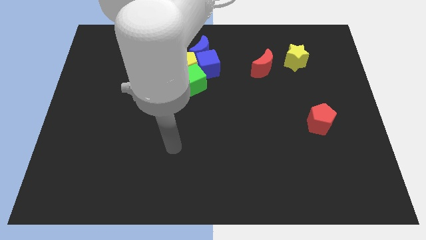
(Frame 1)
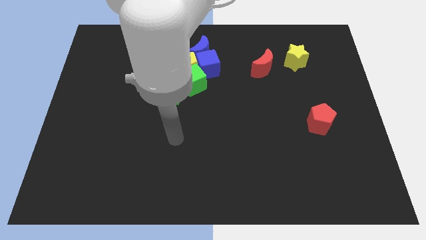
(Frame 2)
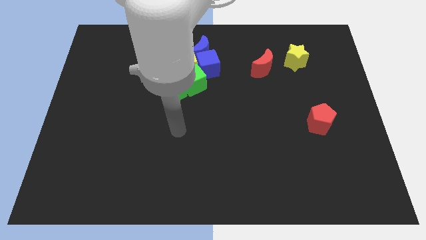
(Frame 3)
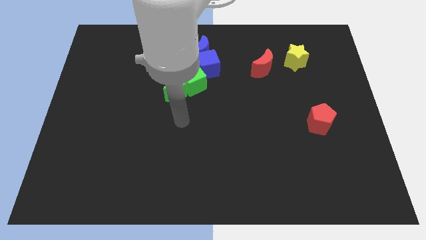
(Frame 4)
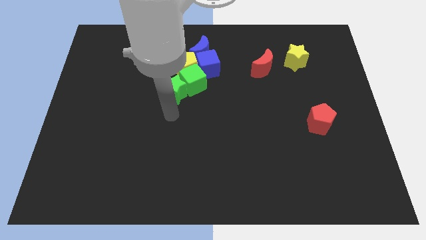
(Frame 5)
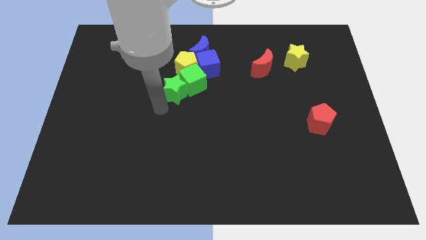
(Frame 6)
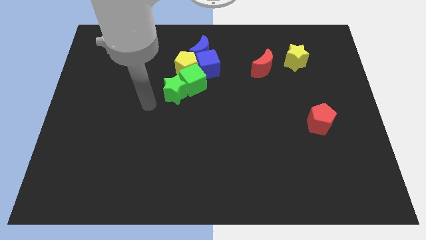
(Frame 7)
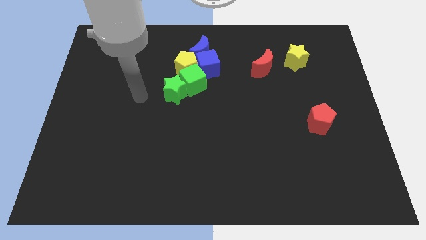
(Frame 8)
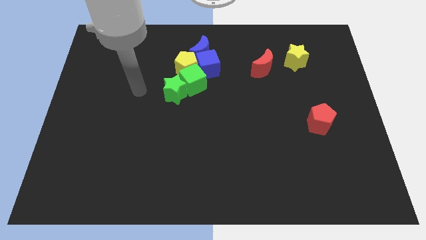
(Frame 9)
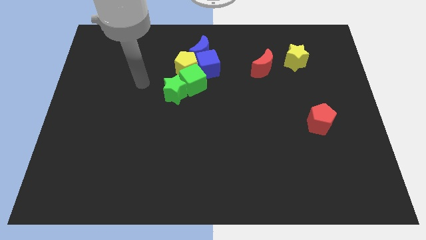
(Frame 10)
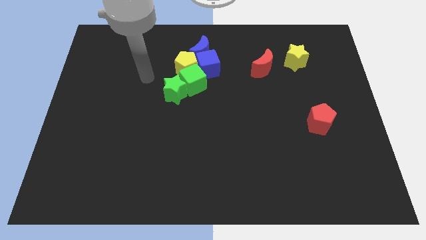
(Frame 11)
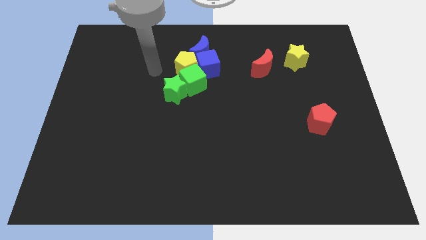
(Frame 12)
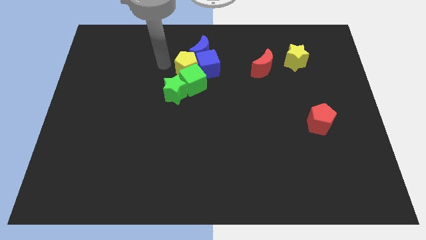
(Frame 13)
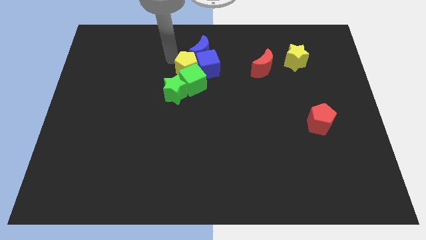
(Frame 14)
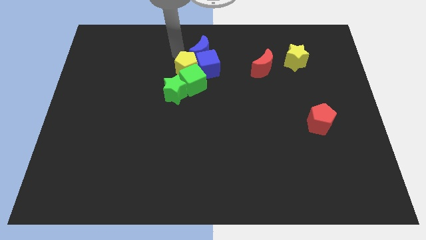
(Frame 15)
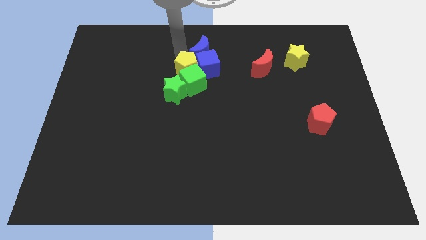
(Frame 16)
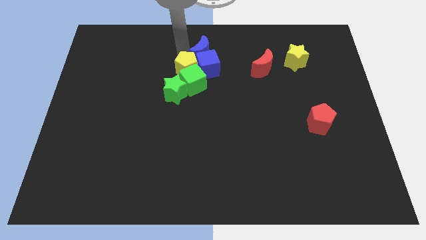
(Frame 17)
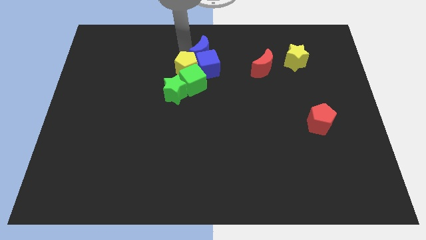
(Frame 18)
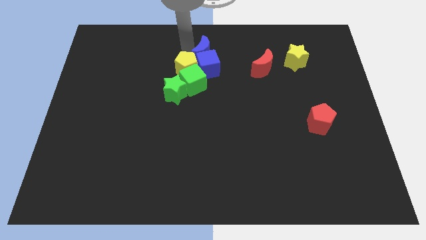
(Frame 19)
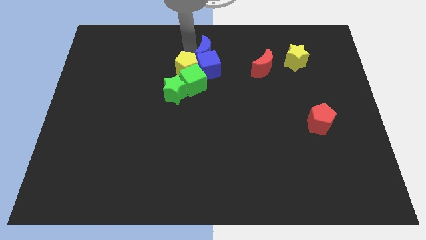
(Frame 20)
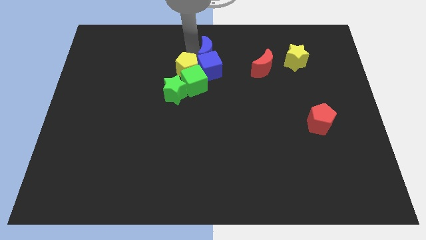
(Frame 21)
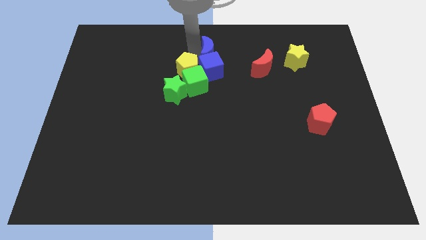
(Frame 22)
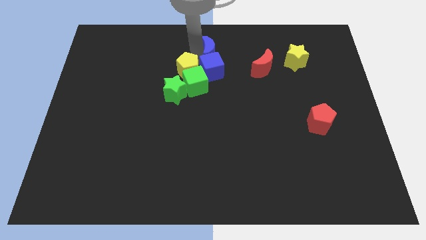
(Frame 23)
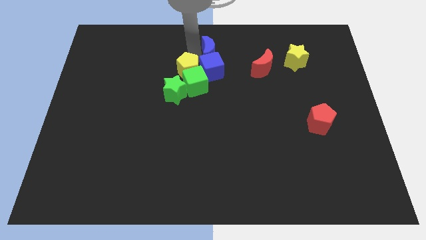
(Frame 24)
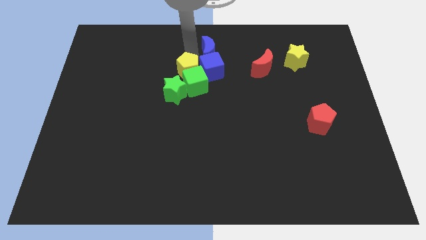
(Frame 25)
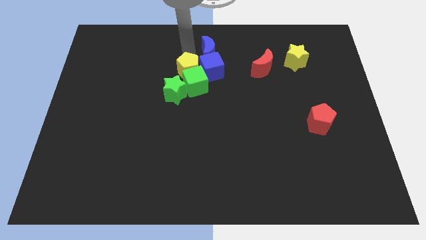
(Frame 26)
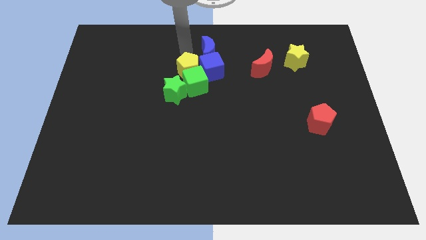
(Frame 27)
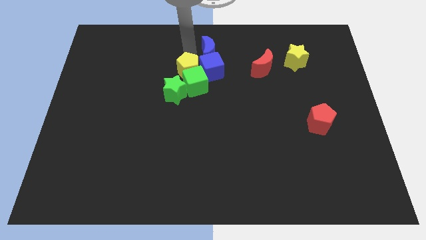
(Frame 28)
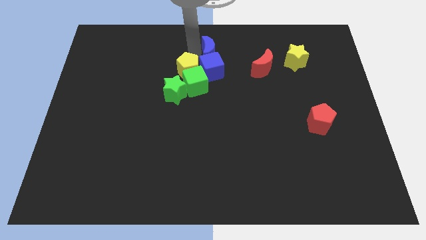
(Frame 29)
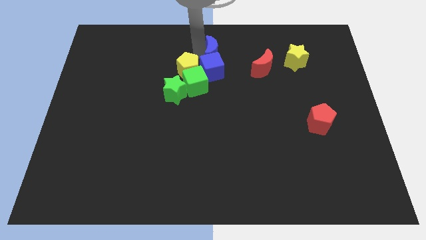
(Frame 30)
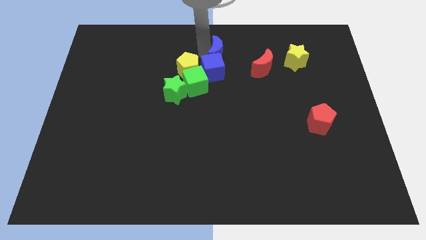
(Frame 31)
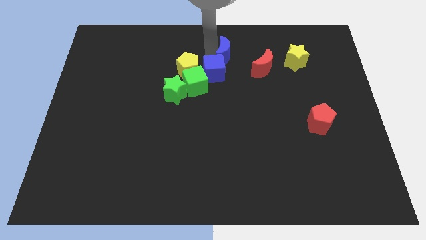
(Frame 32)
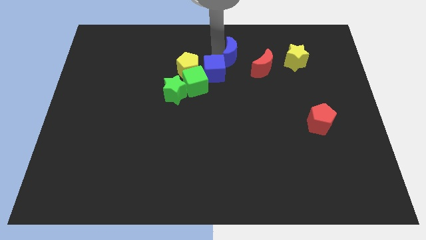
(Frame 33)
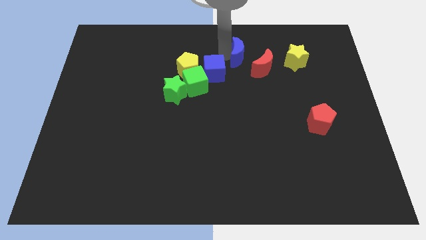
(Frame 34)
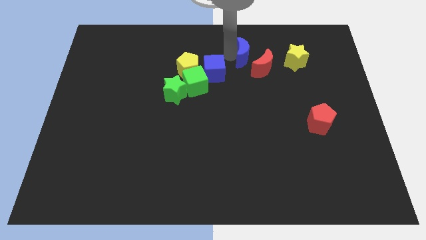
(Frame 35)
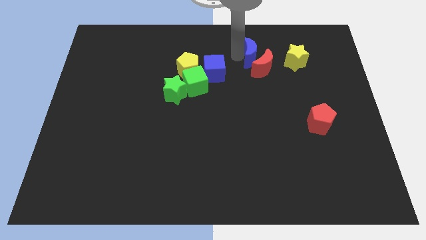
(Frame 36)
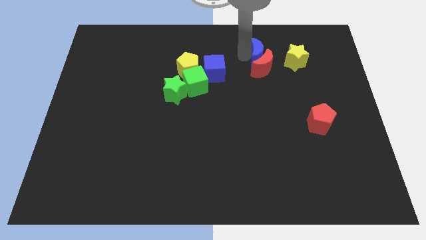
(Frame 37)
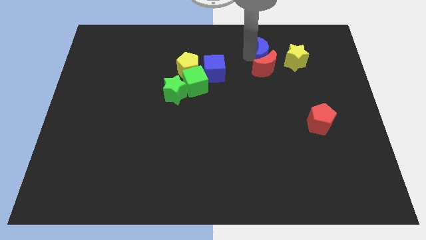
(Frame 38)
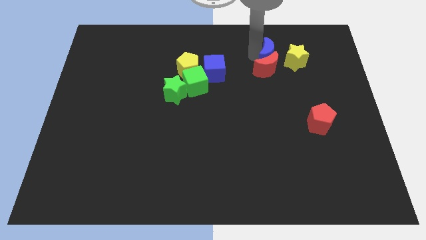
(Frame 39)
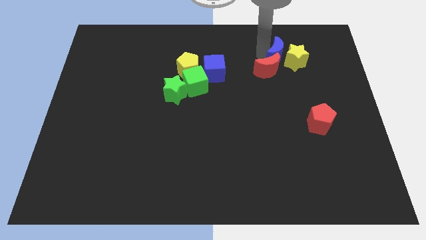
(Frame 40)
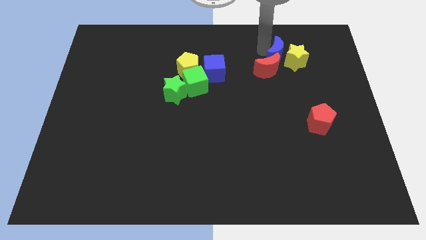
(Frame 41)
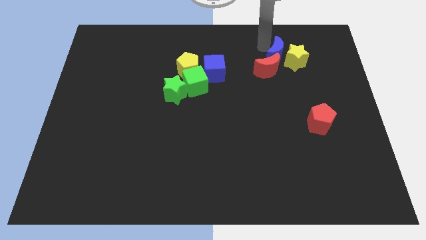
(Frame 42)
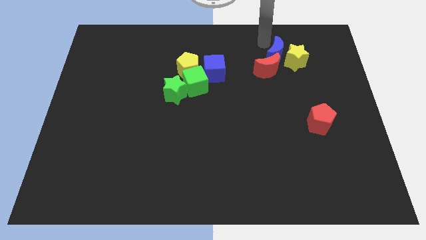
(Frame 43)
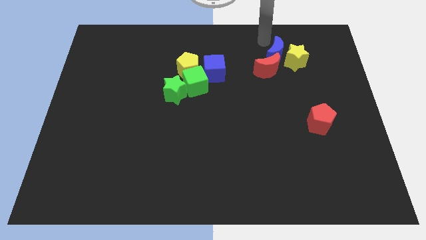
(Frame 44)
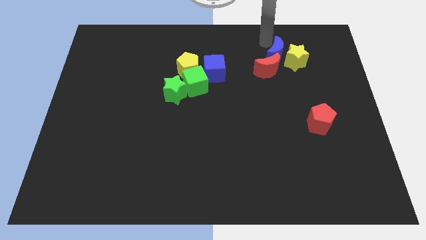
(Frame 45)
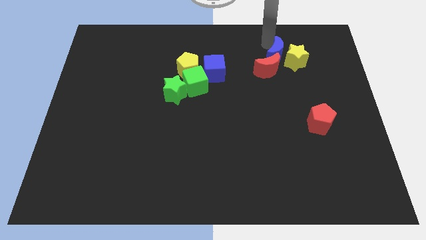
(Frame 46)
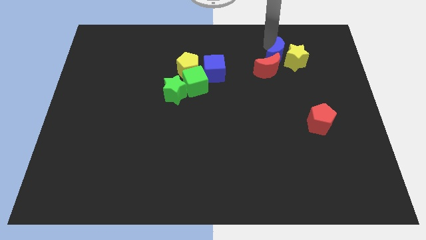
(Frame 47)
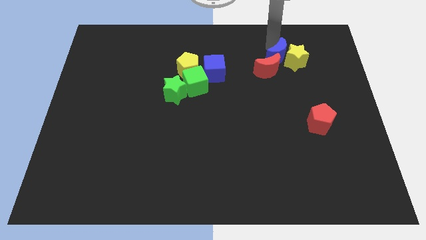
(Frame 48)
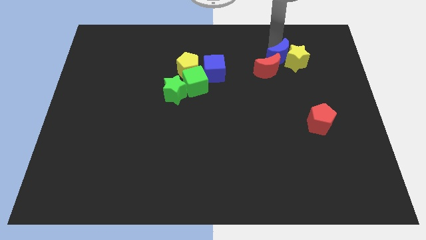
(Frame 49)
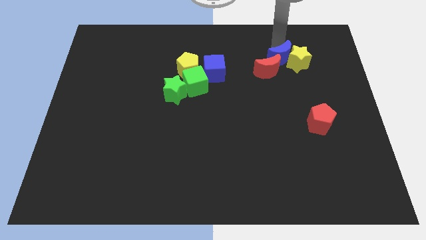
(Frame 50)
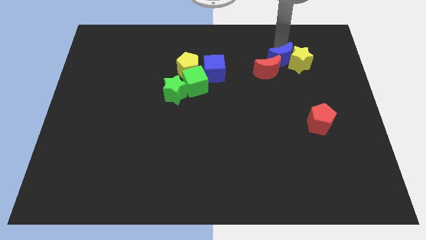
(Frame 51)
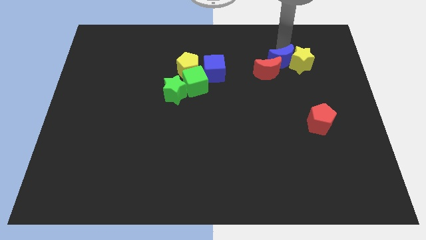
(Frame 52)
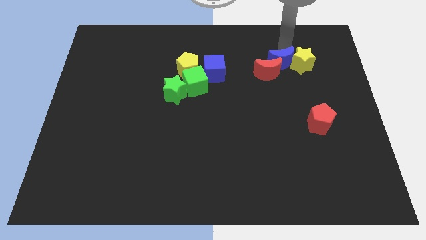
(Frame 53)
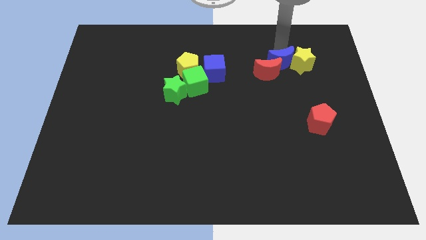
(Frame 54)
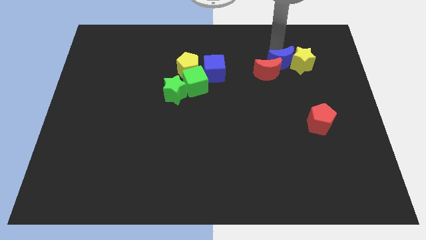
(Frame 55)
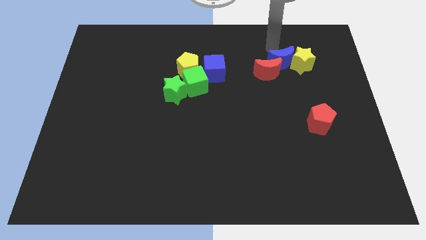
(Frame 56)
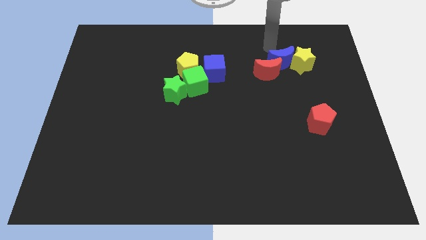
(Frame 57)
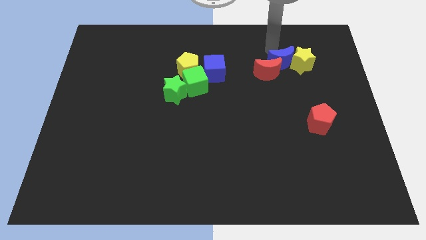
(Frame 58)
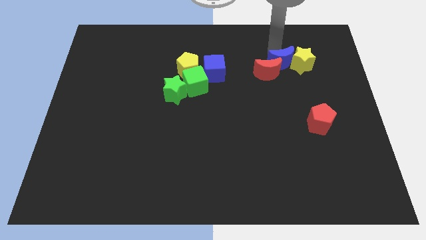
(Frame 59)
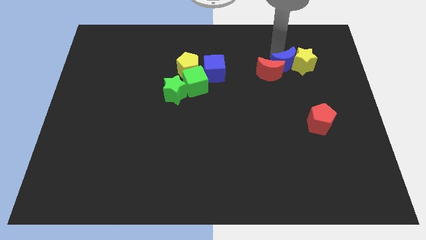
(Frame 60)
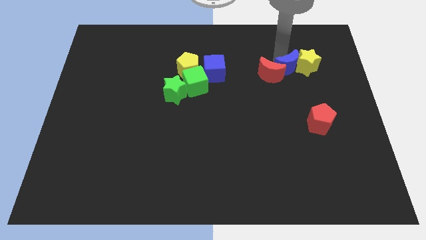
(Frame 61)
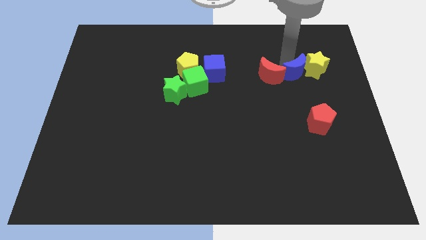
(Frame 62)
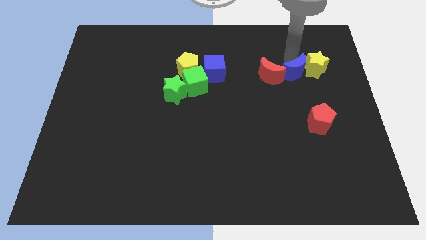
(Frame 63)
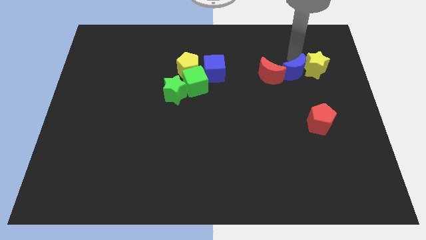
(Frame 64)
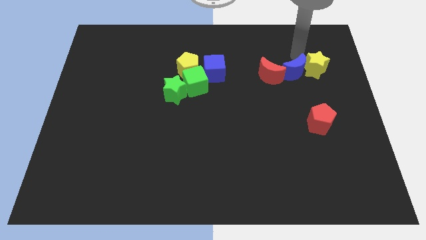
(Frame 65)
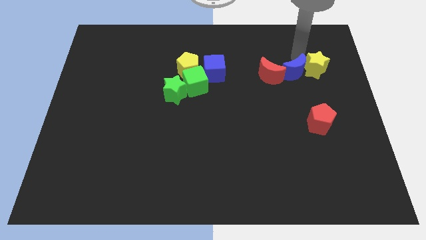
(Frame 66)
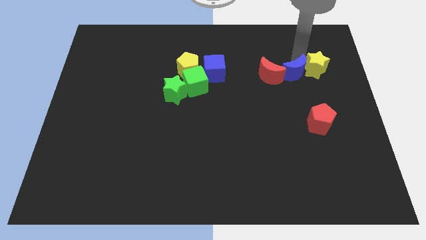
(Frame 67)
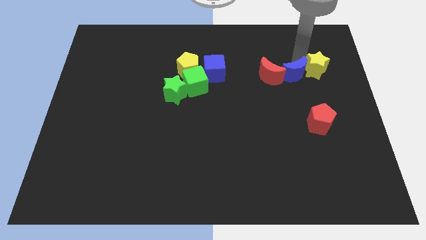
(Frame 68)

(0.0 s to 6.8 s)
move the blue moon to the bottom right of the red moon

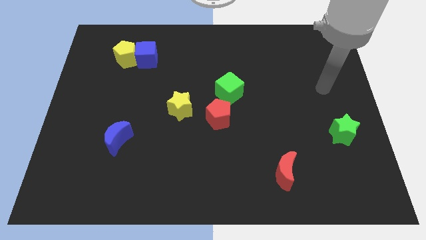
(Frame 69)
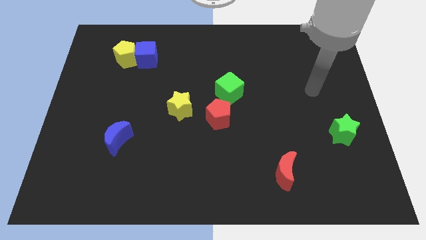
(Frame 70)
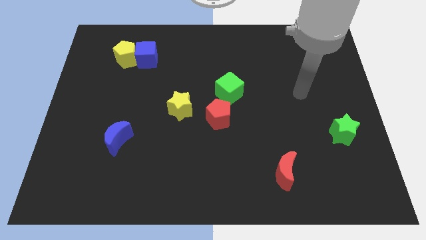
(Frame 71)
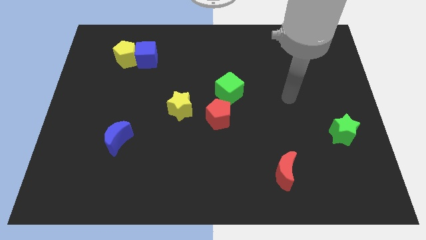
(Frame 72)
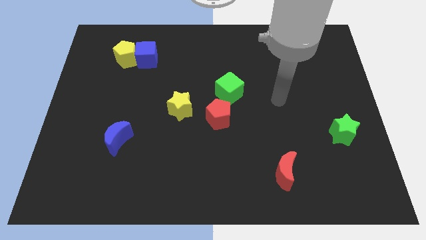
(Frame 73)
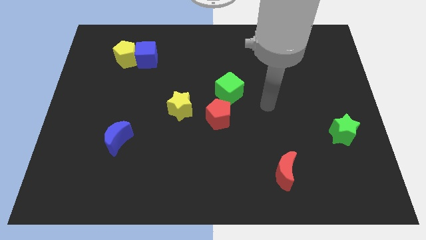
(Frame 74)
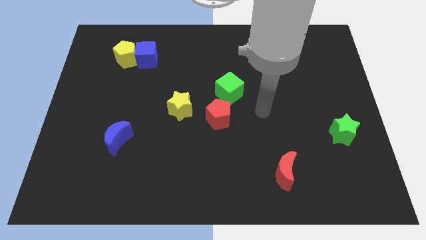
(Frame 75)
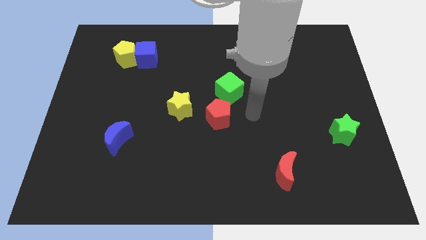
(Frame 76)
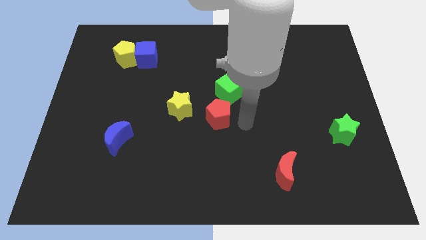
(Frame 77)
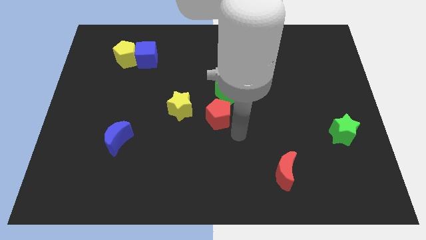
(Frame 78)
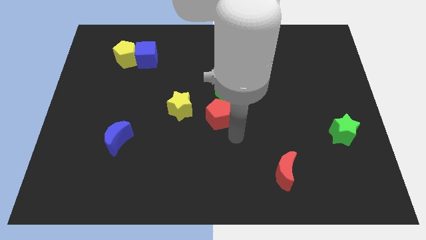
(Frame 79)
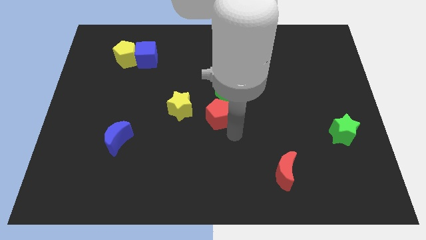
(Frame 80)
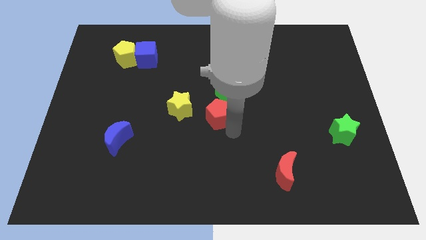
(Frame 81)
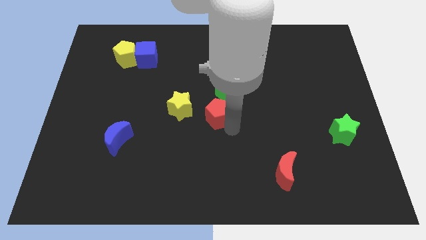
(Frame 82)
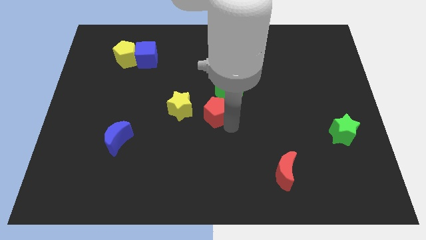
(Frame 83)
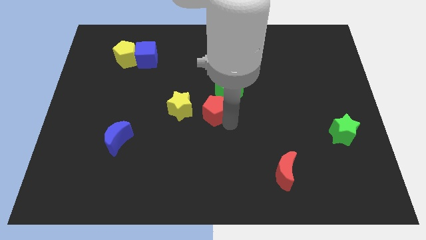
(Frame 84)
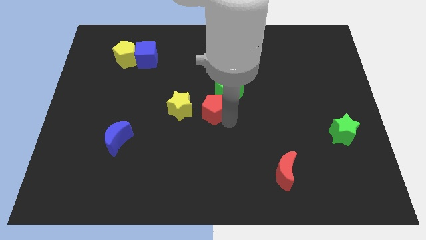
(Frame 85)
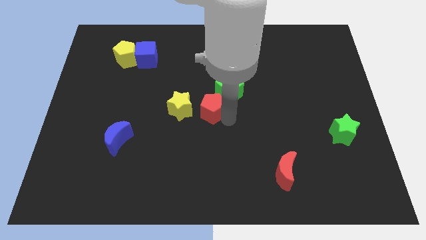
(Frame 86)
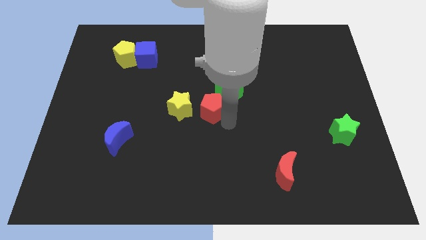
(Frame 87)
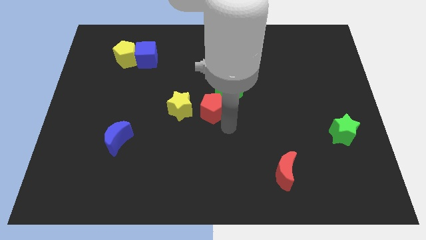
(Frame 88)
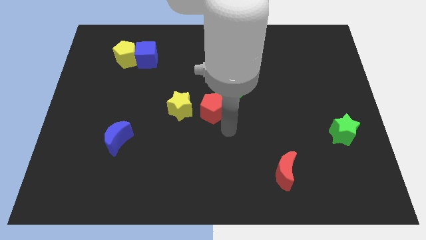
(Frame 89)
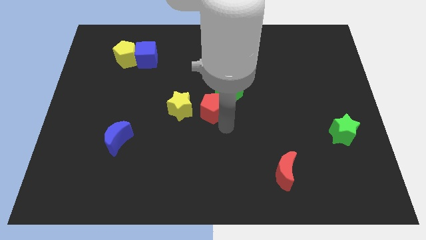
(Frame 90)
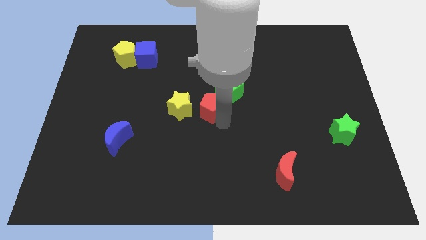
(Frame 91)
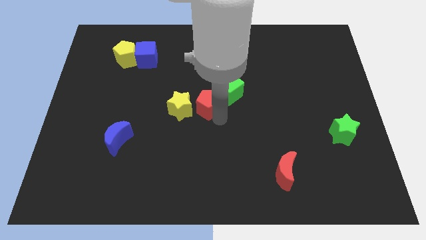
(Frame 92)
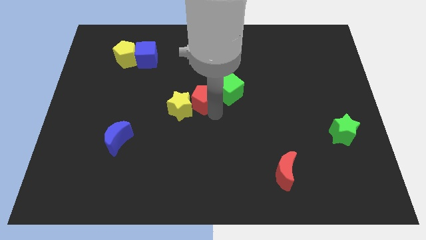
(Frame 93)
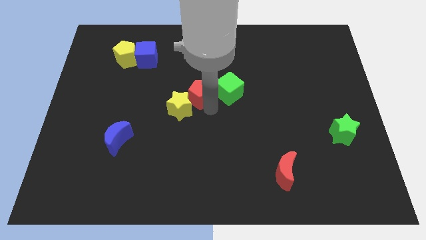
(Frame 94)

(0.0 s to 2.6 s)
move the red pentagon above the yellow star
